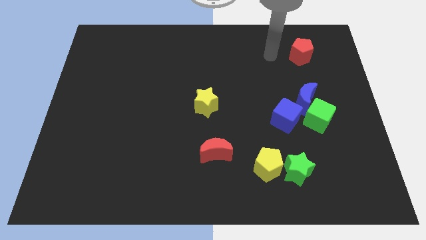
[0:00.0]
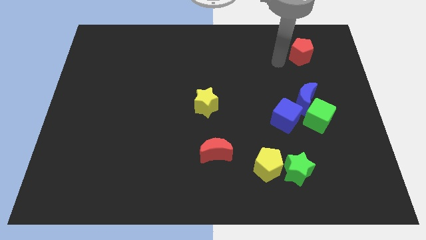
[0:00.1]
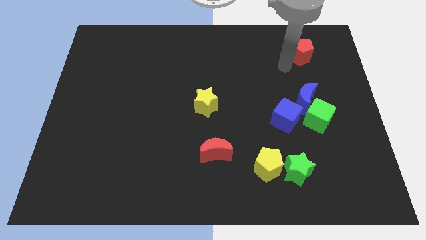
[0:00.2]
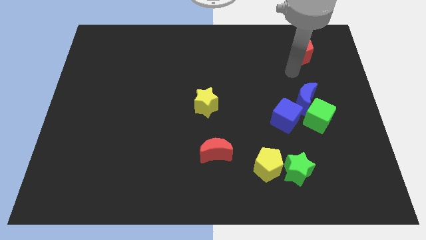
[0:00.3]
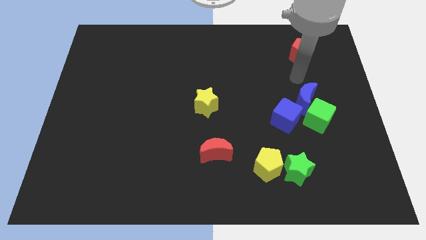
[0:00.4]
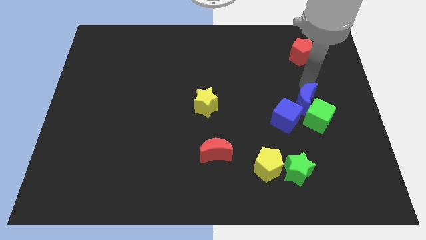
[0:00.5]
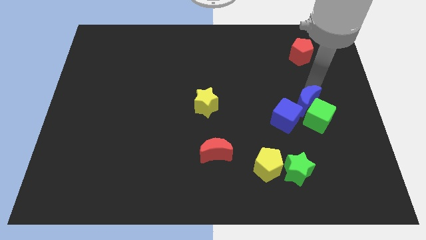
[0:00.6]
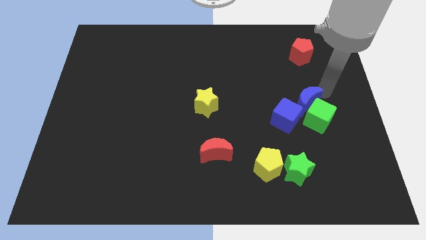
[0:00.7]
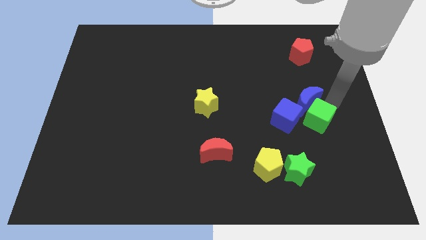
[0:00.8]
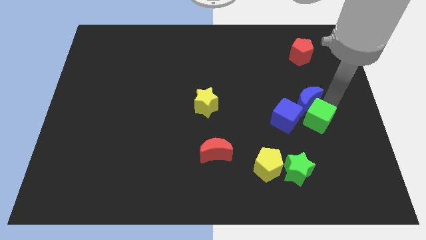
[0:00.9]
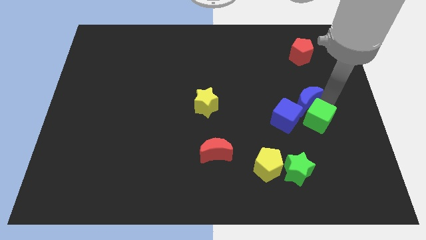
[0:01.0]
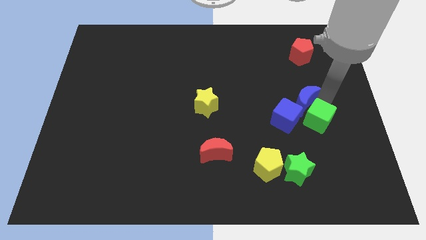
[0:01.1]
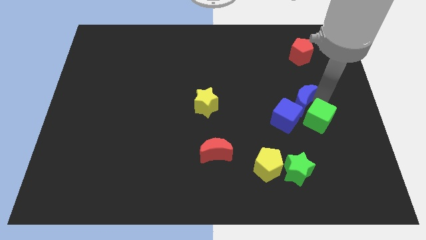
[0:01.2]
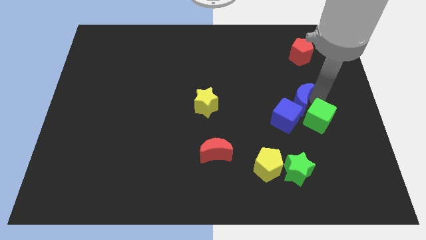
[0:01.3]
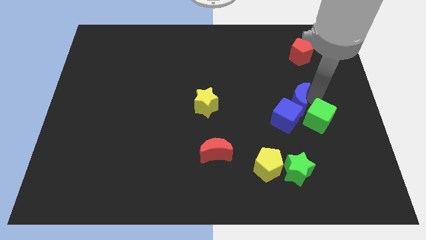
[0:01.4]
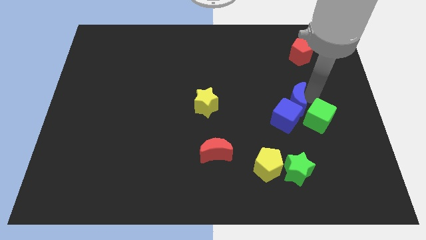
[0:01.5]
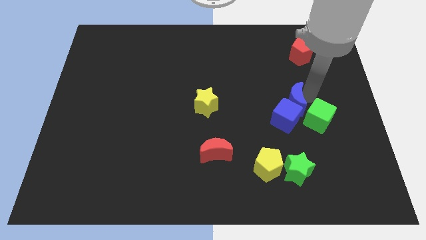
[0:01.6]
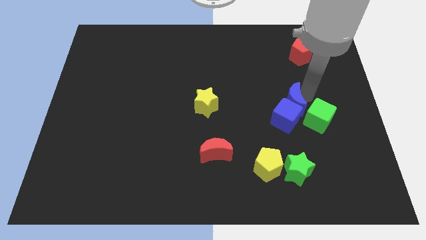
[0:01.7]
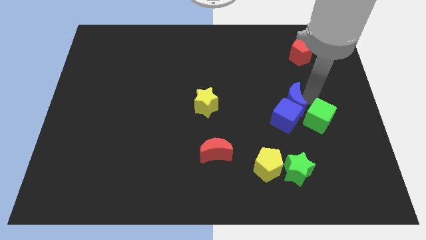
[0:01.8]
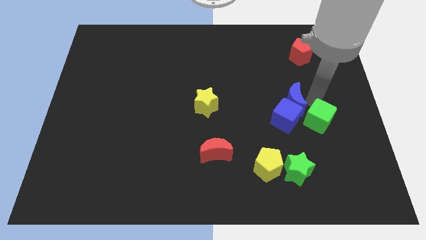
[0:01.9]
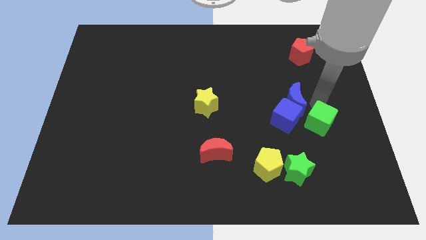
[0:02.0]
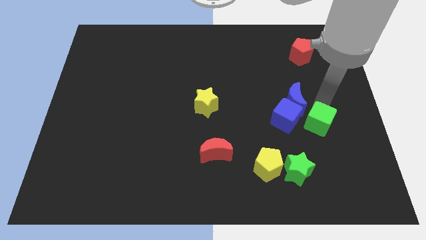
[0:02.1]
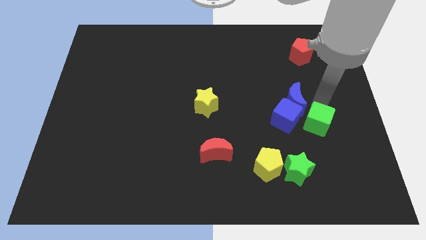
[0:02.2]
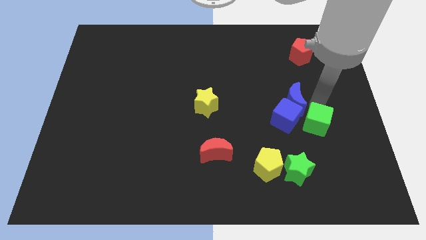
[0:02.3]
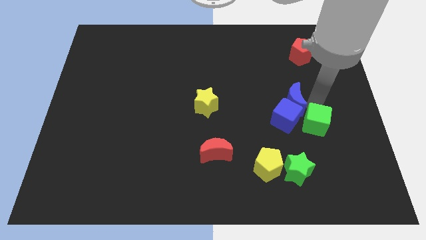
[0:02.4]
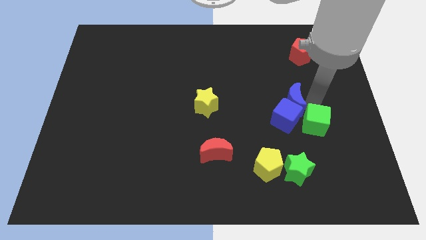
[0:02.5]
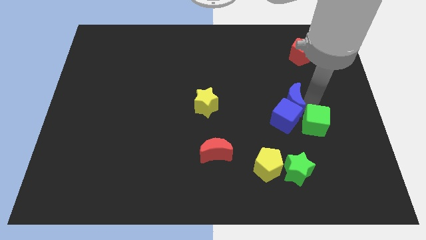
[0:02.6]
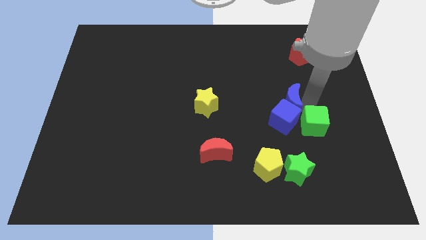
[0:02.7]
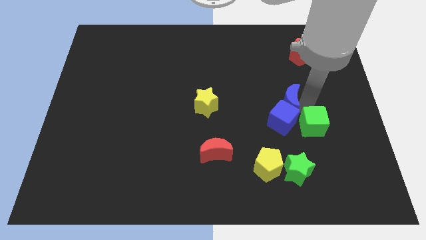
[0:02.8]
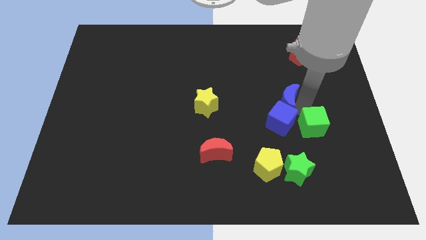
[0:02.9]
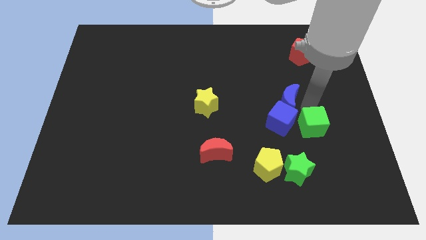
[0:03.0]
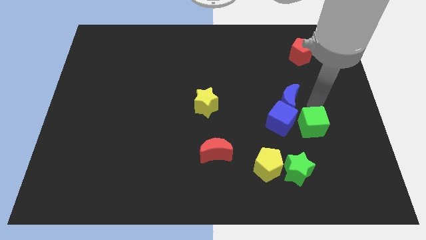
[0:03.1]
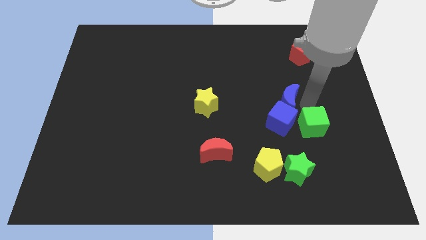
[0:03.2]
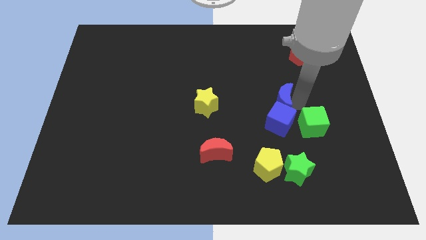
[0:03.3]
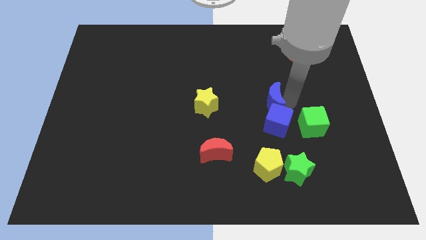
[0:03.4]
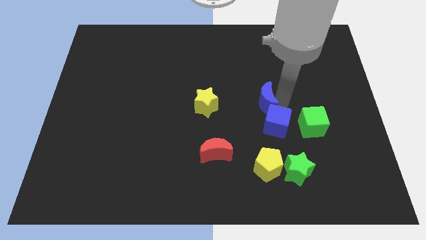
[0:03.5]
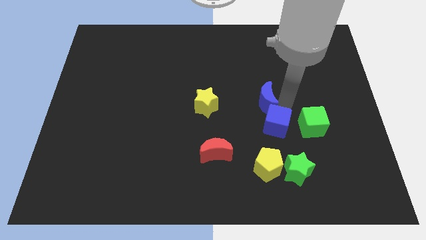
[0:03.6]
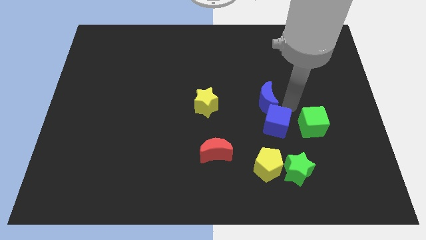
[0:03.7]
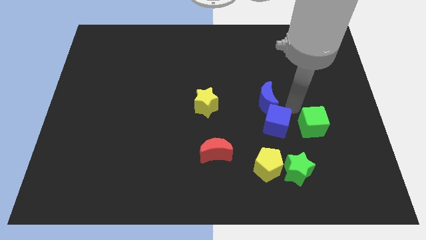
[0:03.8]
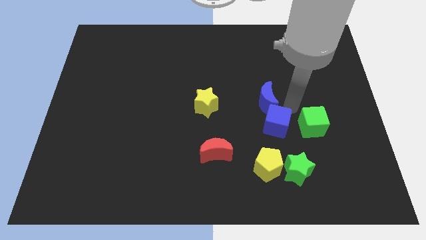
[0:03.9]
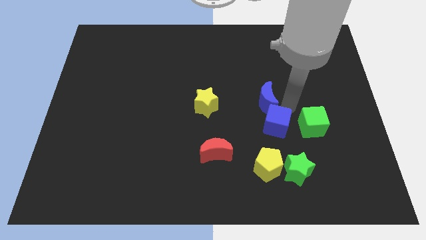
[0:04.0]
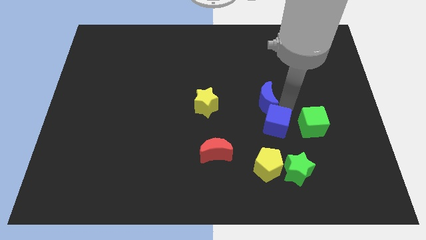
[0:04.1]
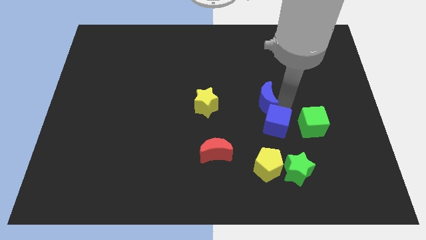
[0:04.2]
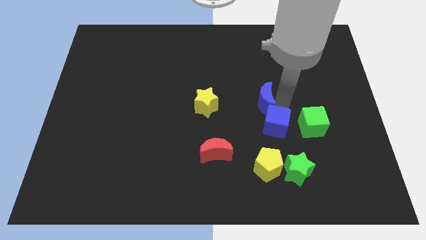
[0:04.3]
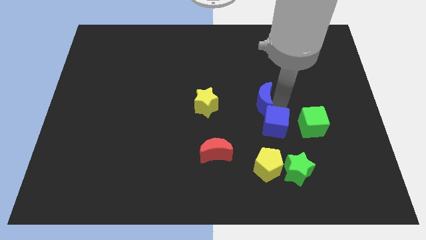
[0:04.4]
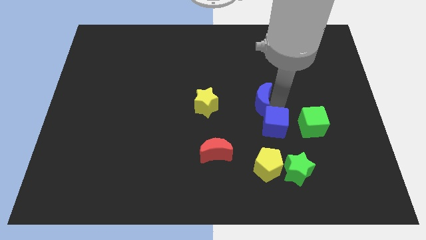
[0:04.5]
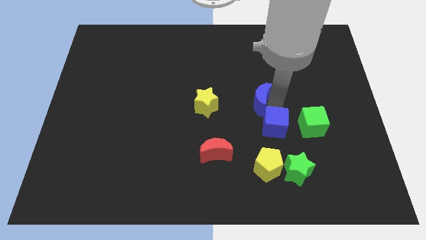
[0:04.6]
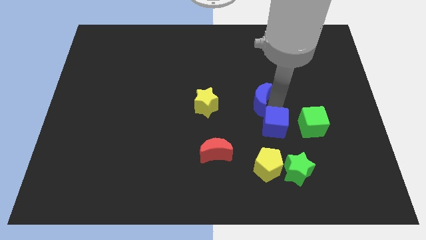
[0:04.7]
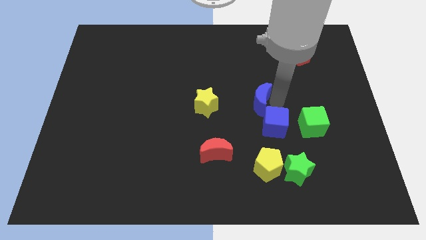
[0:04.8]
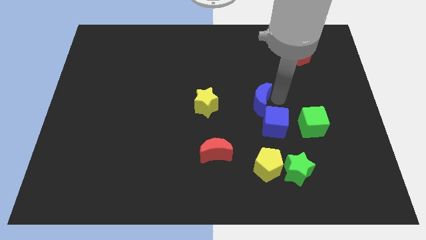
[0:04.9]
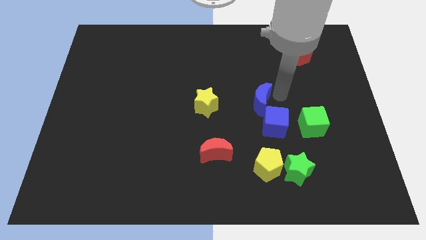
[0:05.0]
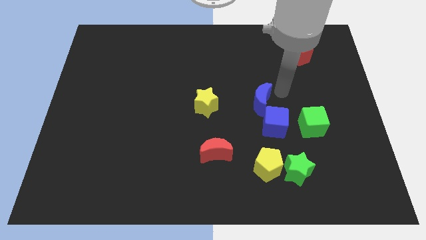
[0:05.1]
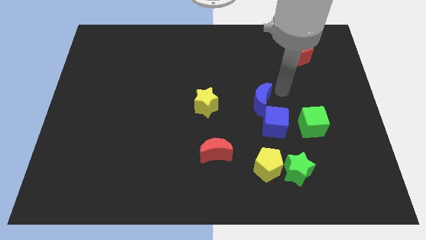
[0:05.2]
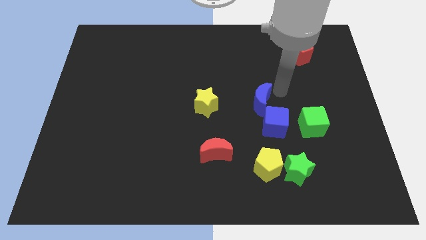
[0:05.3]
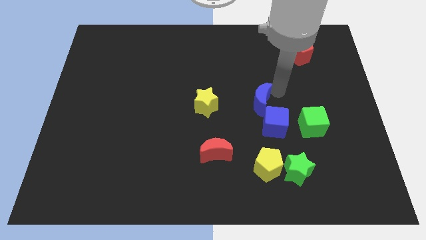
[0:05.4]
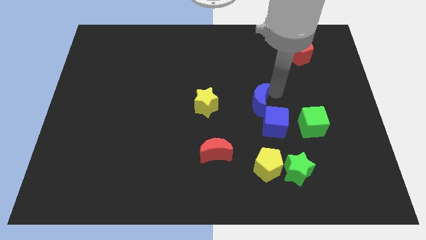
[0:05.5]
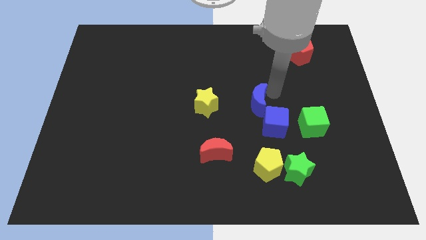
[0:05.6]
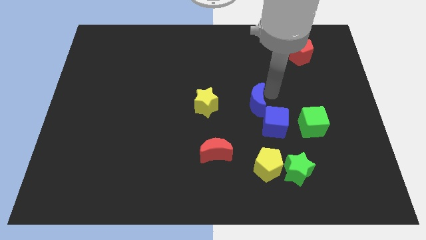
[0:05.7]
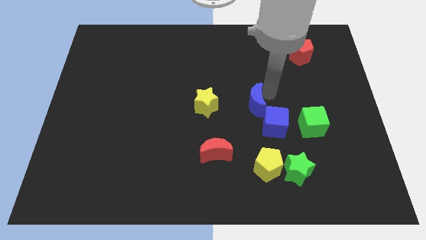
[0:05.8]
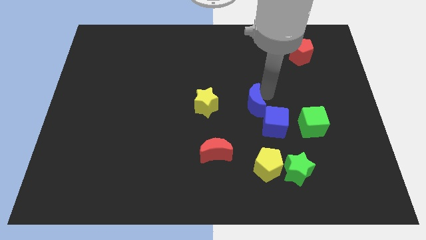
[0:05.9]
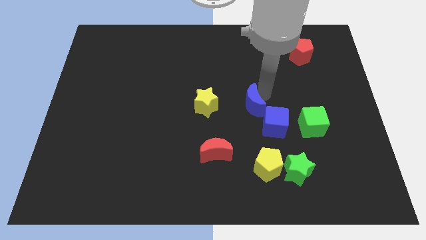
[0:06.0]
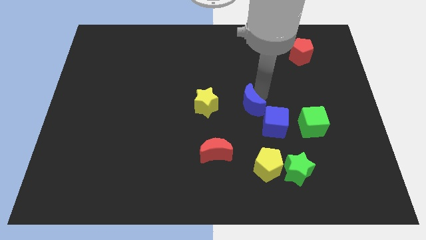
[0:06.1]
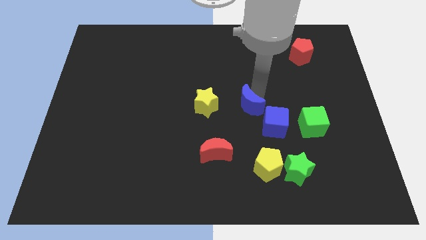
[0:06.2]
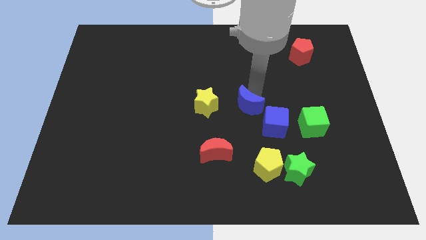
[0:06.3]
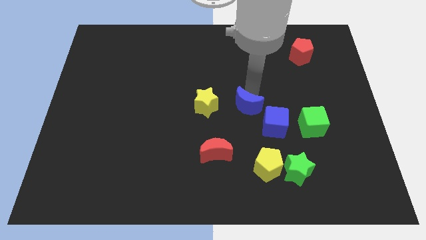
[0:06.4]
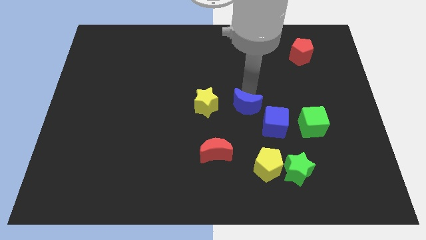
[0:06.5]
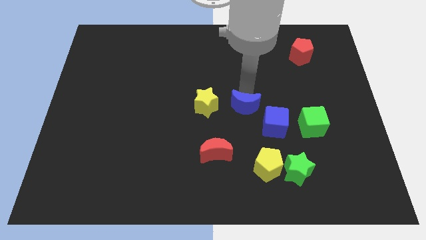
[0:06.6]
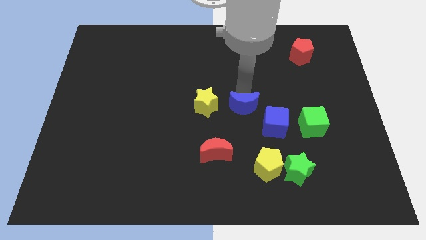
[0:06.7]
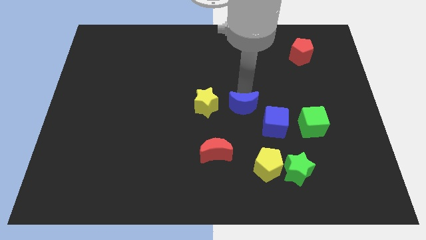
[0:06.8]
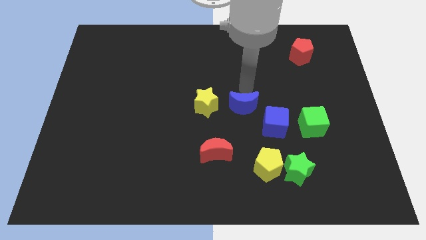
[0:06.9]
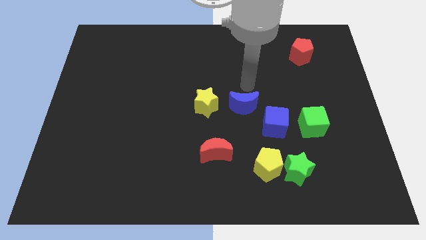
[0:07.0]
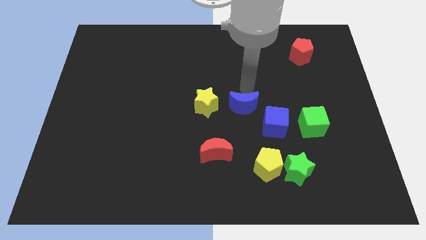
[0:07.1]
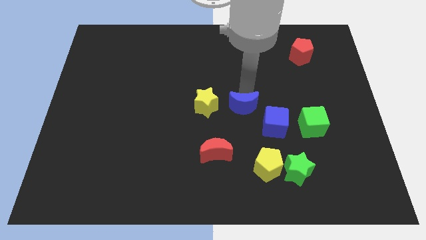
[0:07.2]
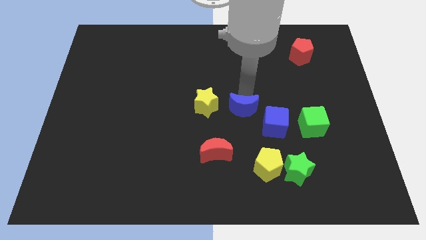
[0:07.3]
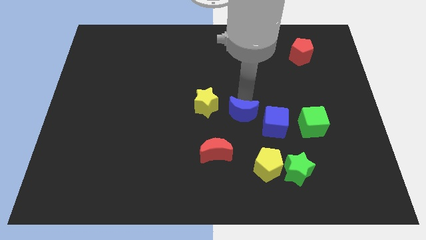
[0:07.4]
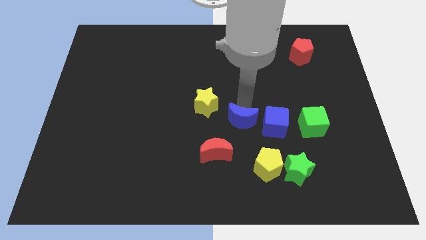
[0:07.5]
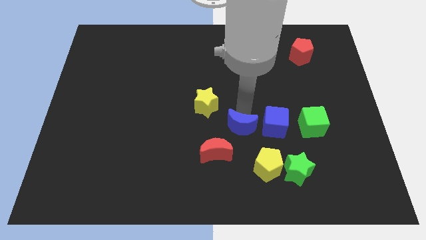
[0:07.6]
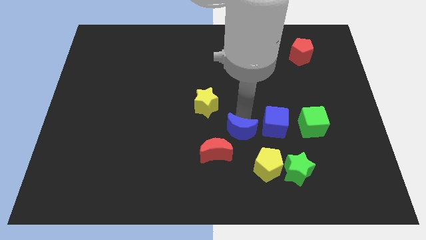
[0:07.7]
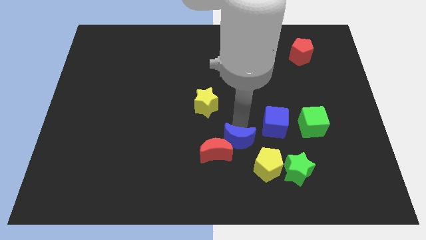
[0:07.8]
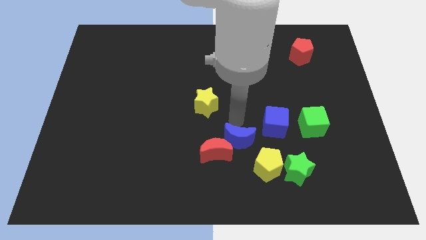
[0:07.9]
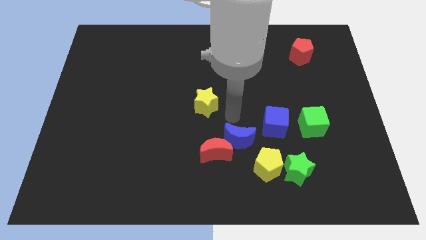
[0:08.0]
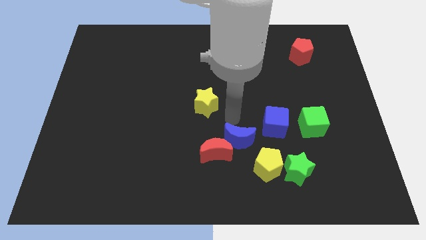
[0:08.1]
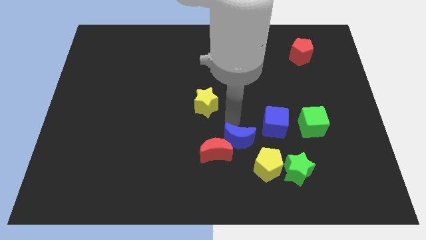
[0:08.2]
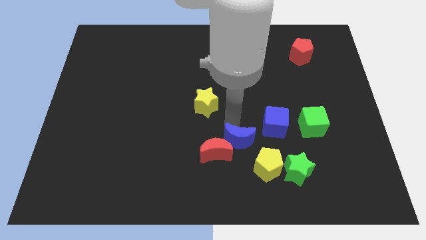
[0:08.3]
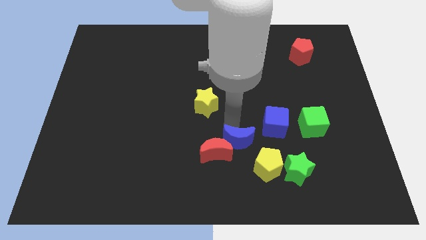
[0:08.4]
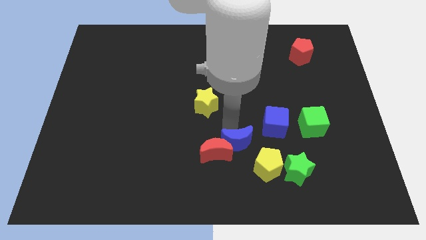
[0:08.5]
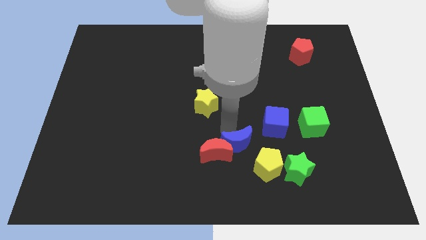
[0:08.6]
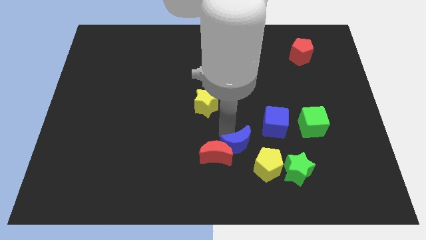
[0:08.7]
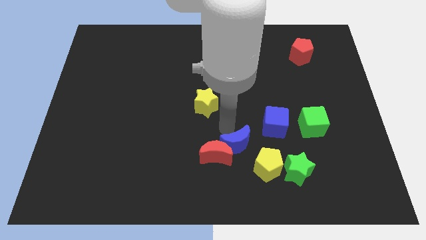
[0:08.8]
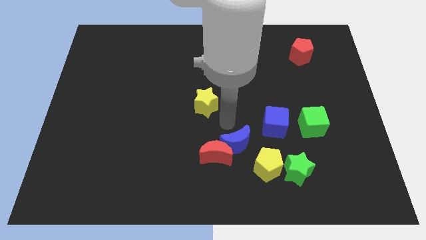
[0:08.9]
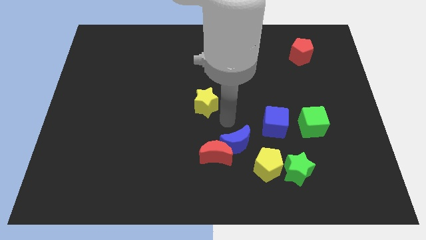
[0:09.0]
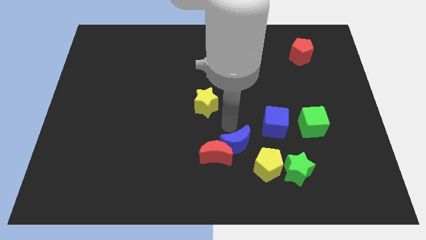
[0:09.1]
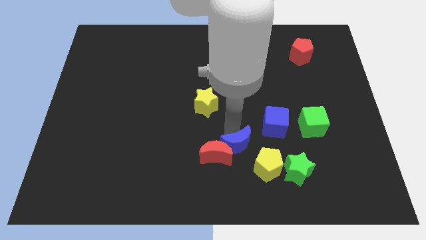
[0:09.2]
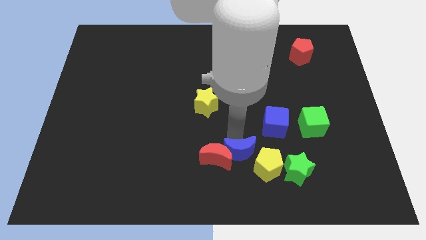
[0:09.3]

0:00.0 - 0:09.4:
push the blue moon left of the green star
